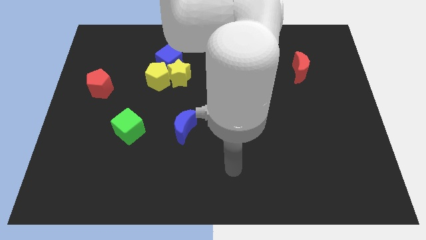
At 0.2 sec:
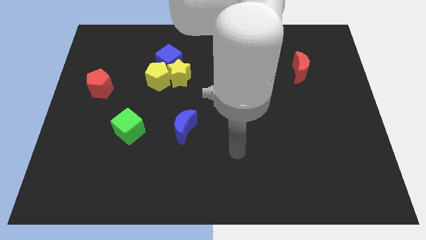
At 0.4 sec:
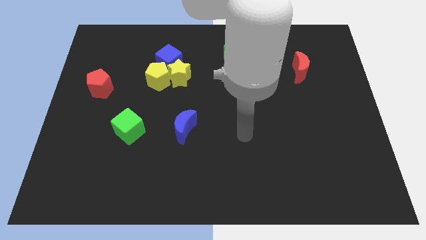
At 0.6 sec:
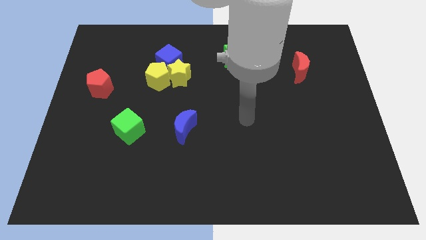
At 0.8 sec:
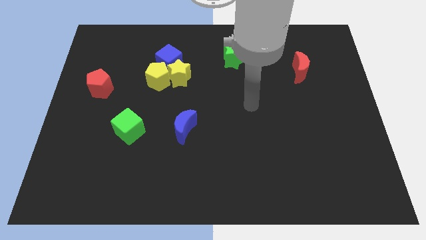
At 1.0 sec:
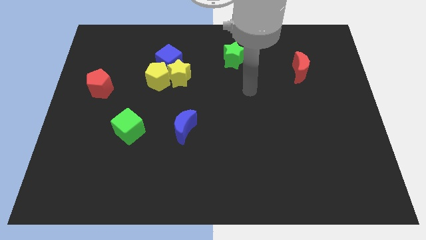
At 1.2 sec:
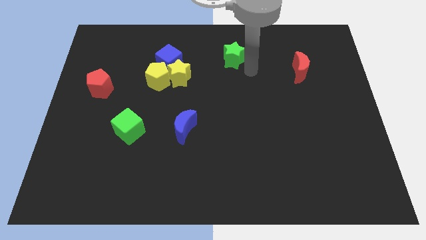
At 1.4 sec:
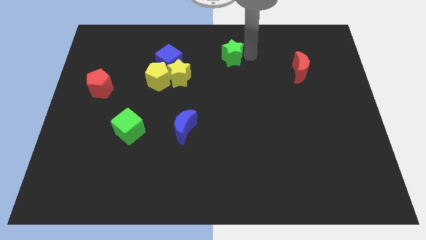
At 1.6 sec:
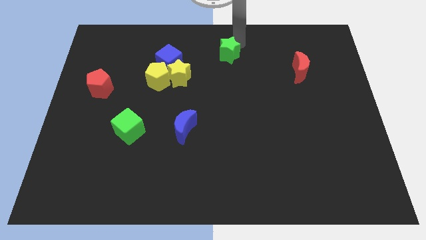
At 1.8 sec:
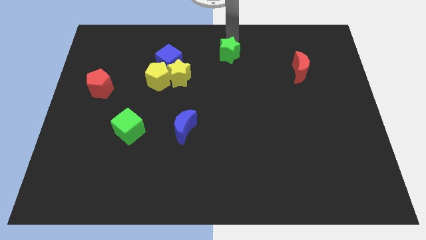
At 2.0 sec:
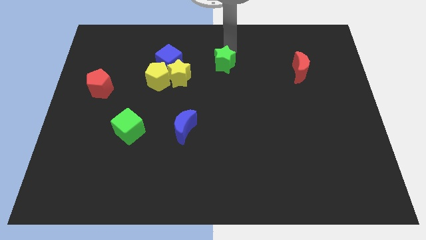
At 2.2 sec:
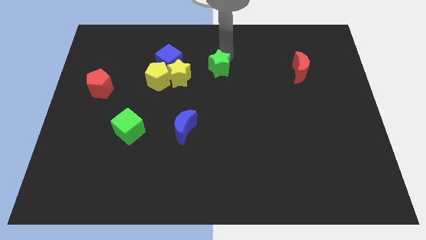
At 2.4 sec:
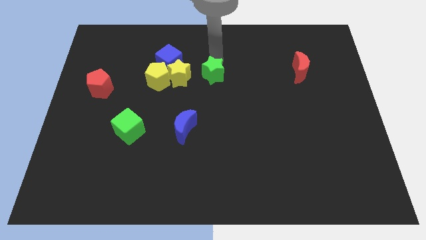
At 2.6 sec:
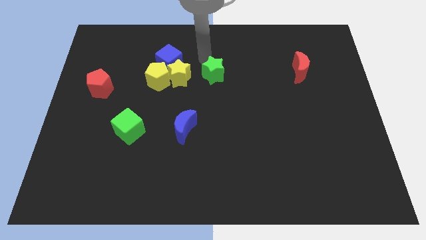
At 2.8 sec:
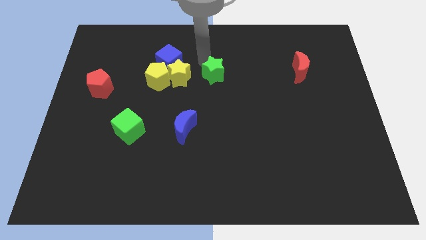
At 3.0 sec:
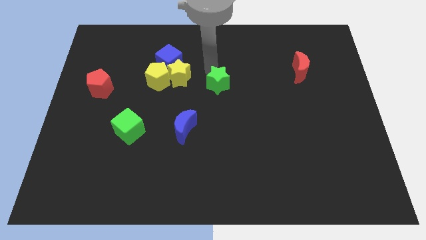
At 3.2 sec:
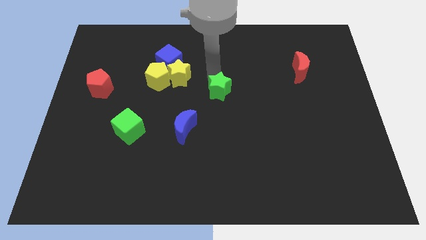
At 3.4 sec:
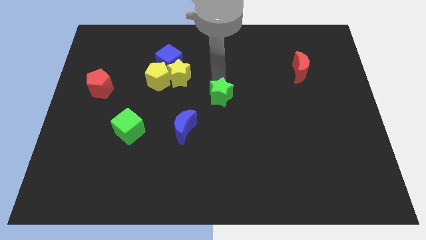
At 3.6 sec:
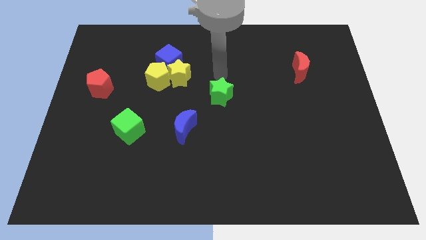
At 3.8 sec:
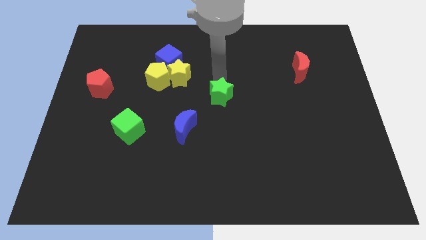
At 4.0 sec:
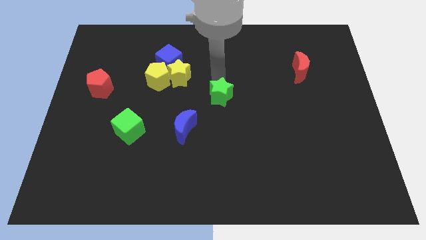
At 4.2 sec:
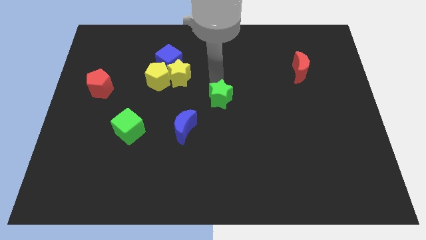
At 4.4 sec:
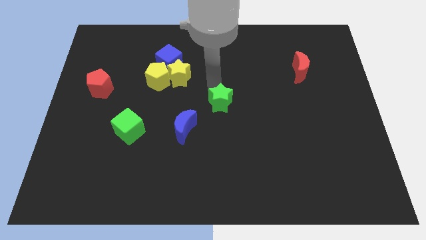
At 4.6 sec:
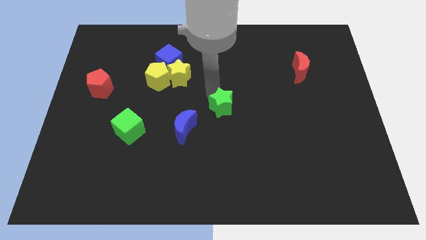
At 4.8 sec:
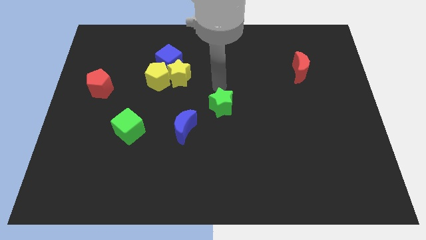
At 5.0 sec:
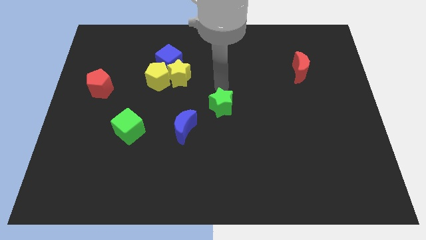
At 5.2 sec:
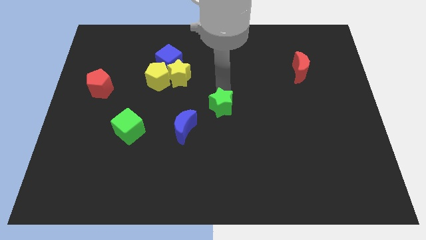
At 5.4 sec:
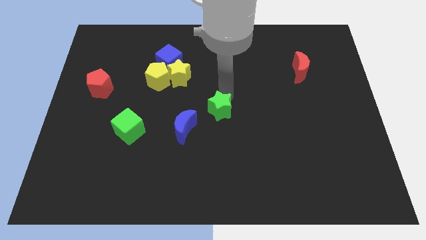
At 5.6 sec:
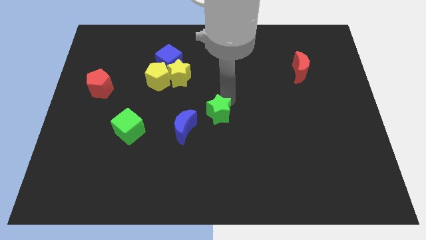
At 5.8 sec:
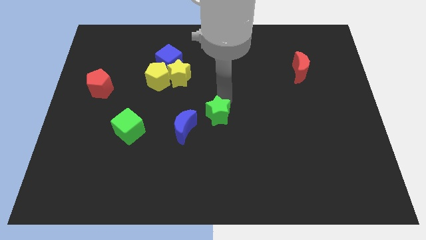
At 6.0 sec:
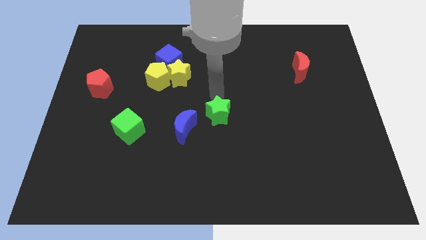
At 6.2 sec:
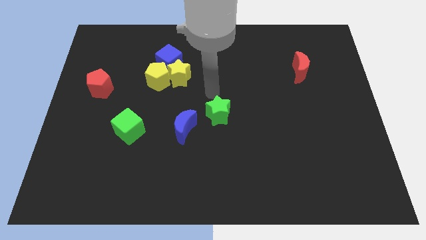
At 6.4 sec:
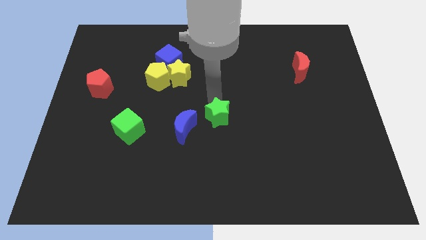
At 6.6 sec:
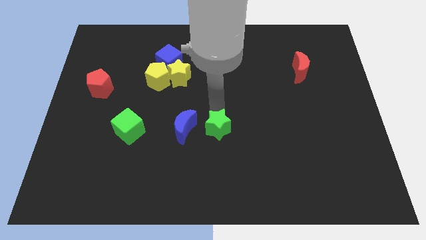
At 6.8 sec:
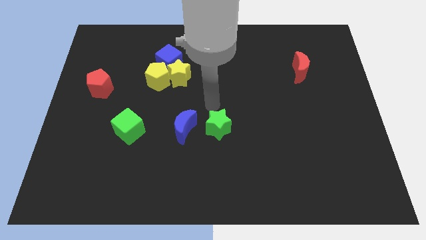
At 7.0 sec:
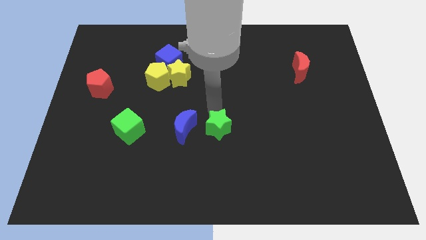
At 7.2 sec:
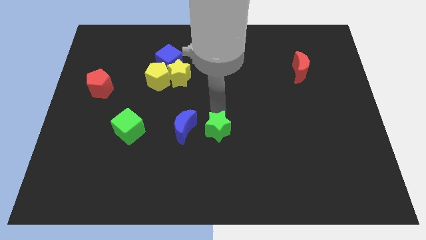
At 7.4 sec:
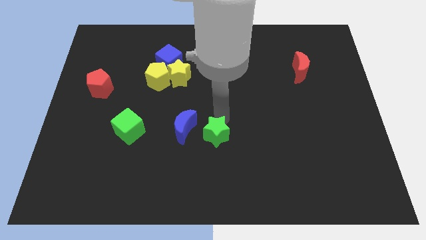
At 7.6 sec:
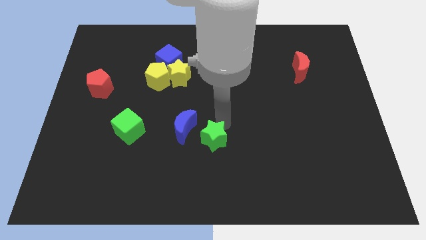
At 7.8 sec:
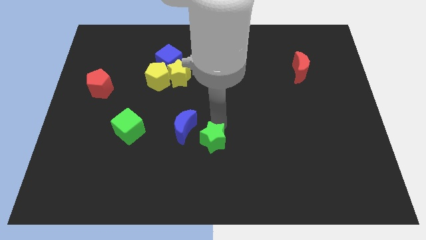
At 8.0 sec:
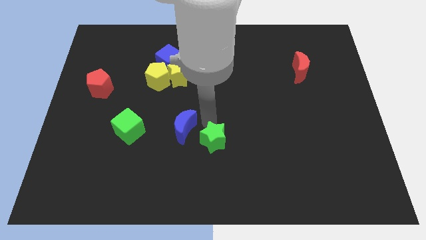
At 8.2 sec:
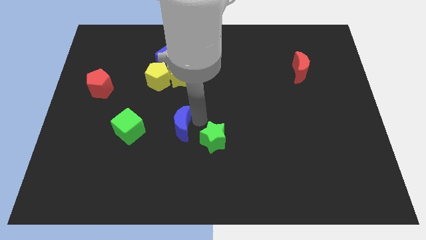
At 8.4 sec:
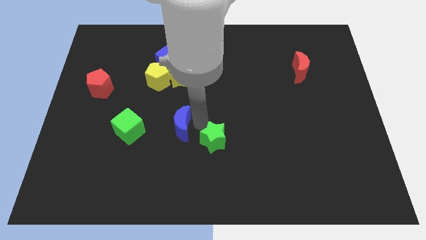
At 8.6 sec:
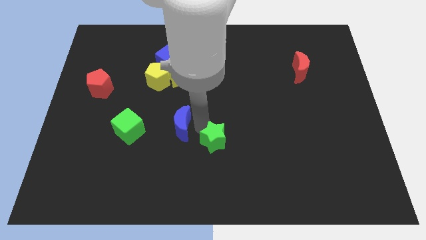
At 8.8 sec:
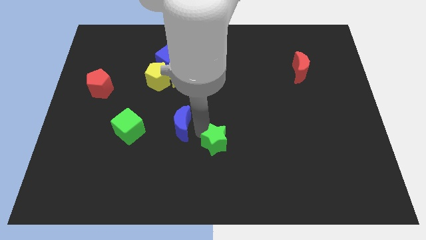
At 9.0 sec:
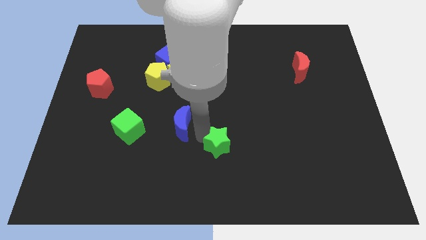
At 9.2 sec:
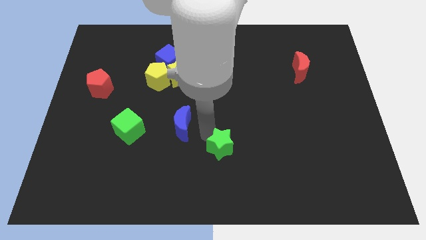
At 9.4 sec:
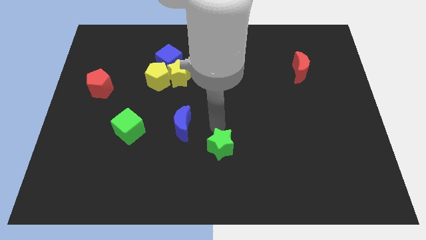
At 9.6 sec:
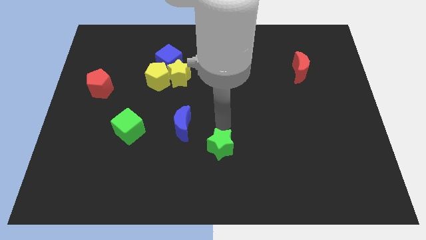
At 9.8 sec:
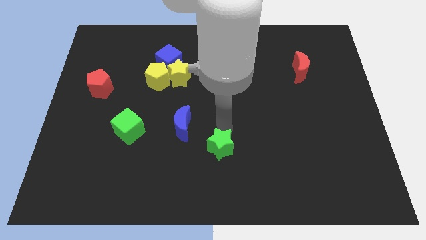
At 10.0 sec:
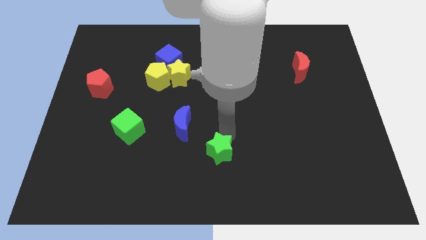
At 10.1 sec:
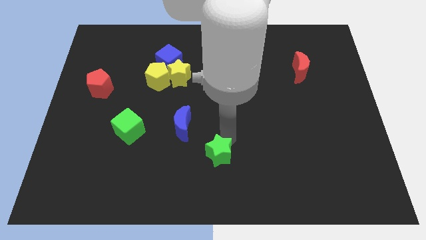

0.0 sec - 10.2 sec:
slide the green star to the bottom side

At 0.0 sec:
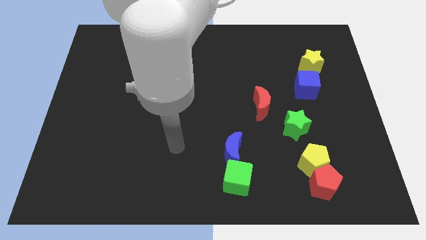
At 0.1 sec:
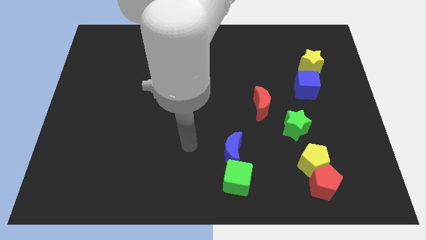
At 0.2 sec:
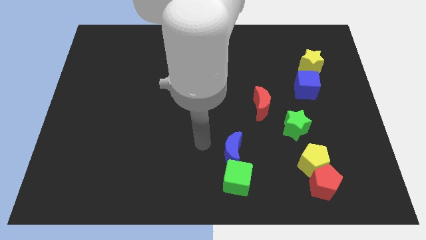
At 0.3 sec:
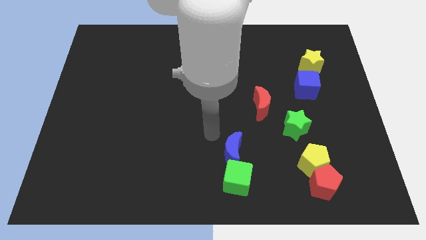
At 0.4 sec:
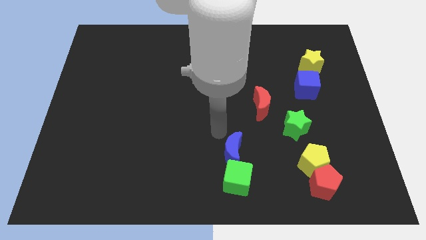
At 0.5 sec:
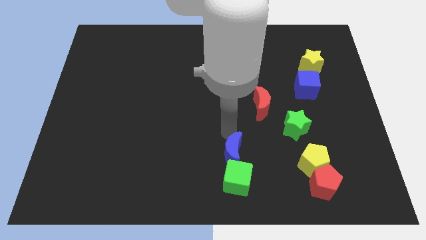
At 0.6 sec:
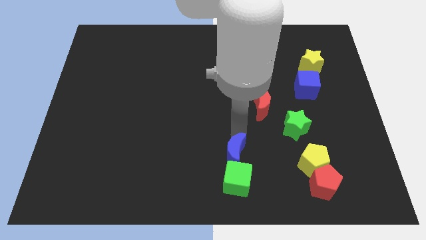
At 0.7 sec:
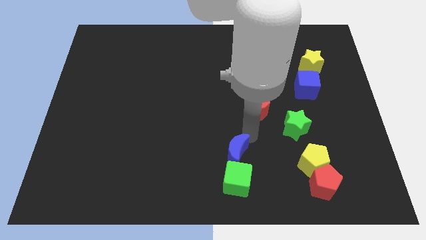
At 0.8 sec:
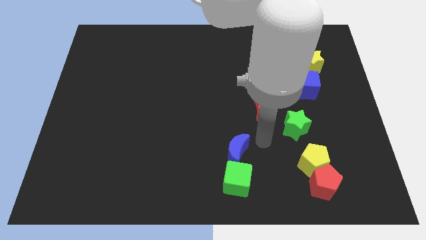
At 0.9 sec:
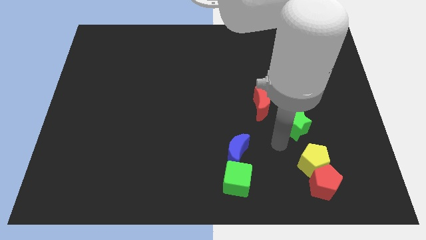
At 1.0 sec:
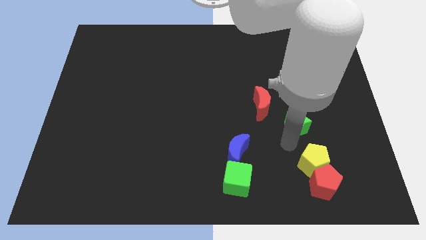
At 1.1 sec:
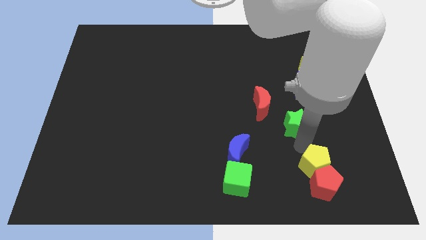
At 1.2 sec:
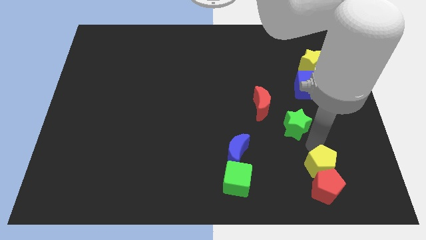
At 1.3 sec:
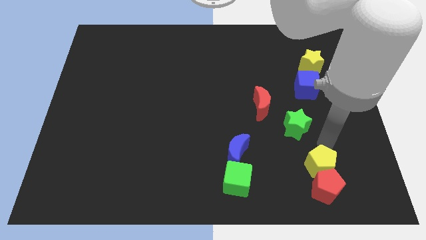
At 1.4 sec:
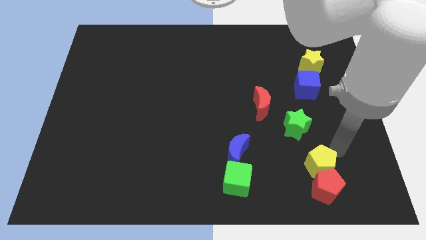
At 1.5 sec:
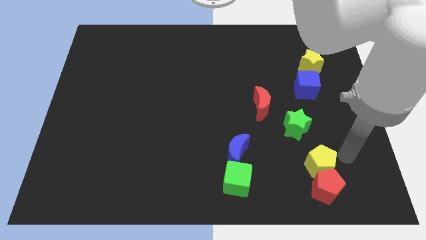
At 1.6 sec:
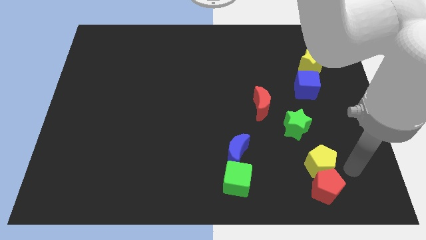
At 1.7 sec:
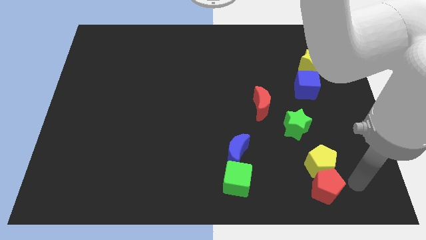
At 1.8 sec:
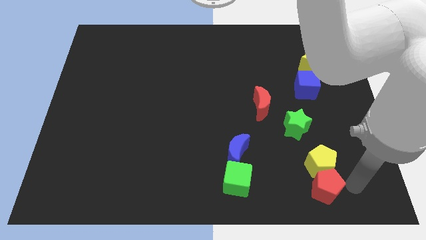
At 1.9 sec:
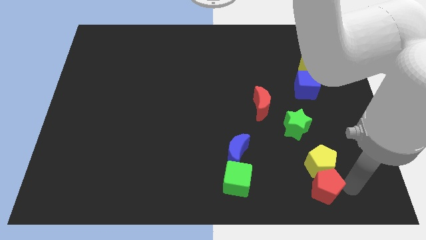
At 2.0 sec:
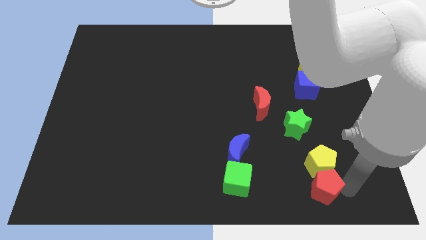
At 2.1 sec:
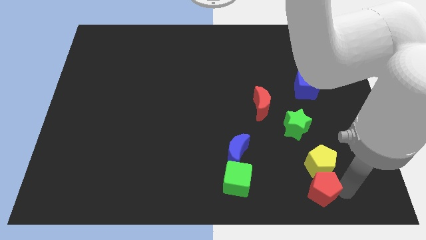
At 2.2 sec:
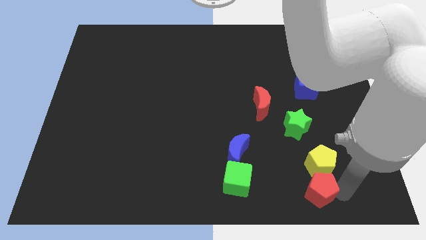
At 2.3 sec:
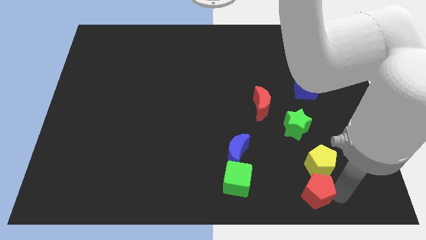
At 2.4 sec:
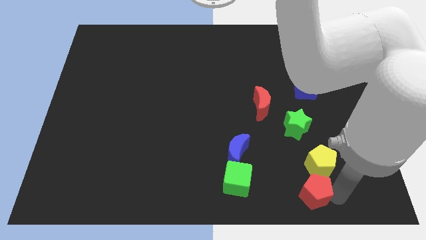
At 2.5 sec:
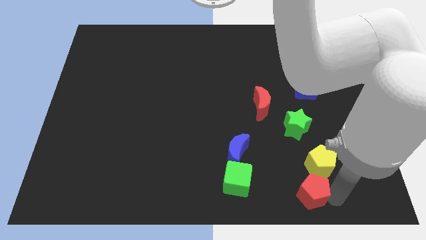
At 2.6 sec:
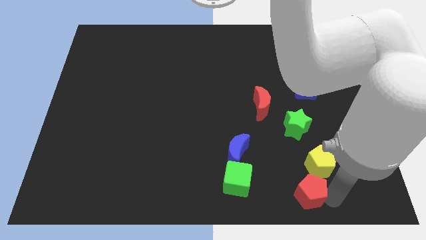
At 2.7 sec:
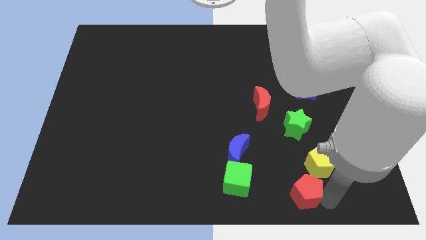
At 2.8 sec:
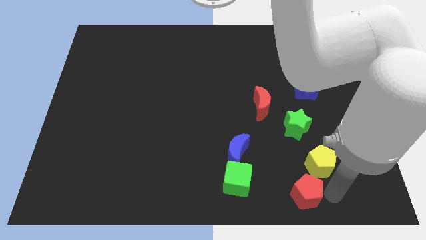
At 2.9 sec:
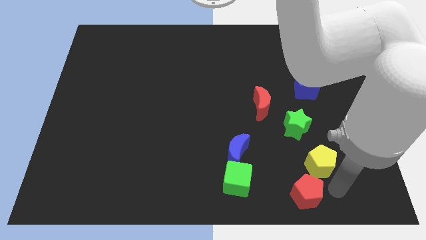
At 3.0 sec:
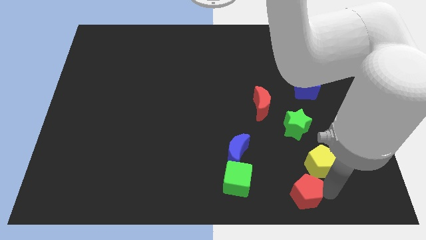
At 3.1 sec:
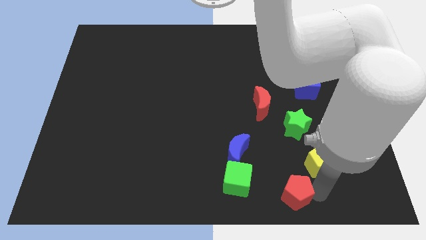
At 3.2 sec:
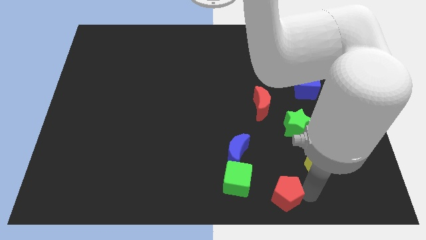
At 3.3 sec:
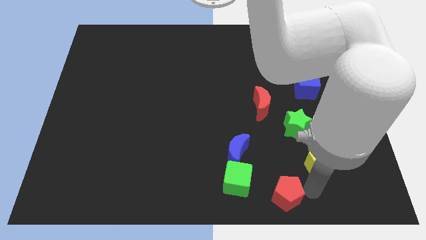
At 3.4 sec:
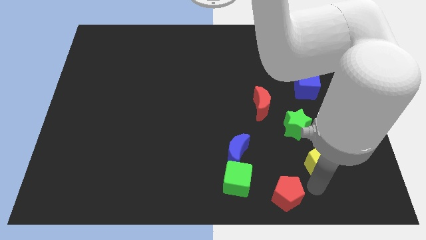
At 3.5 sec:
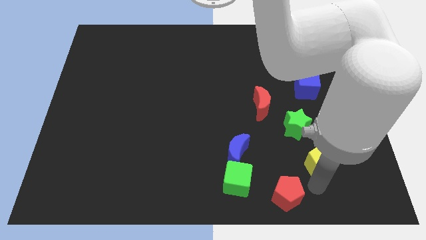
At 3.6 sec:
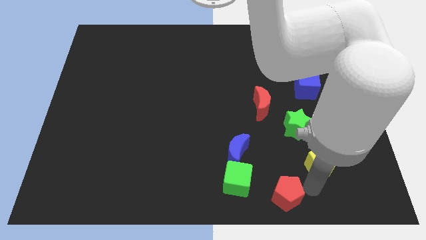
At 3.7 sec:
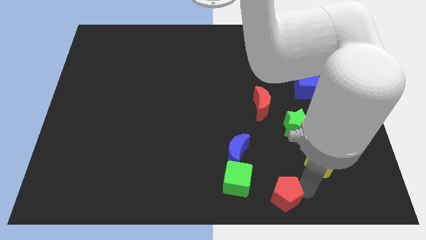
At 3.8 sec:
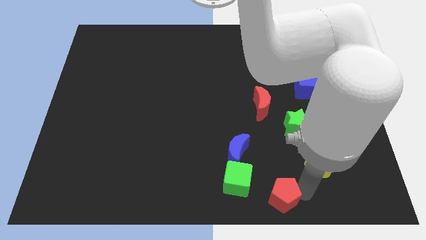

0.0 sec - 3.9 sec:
put the red pentagon to the bottom
